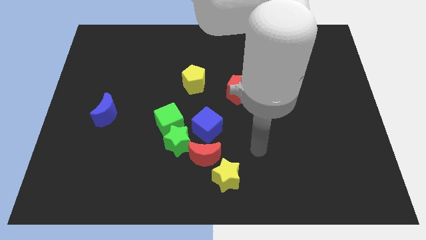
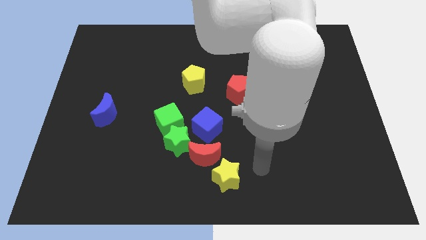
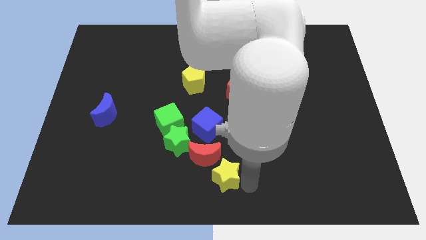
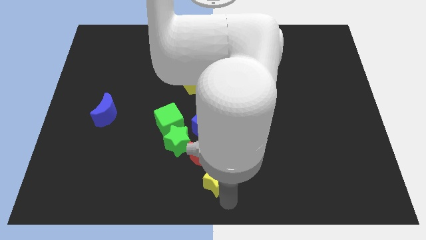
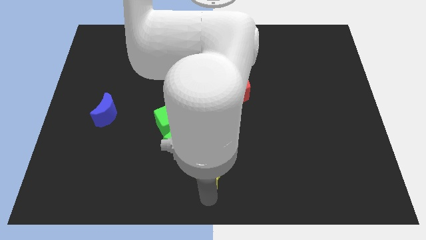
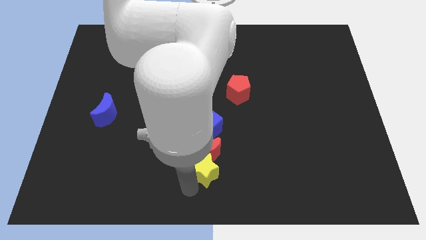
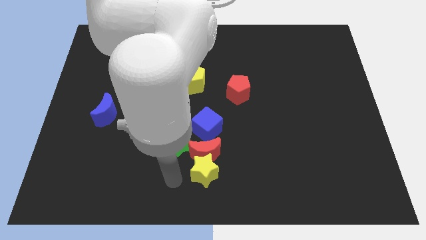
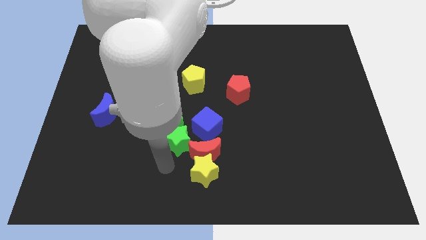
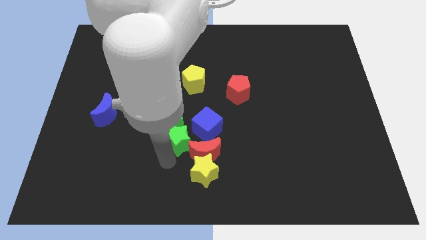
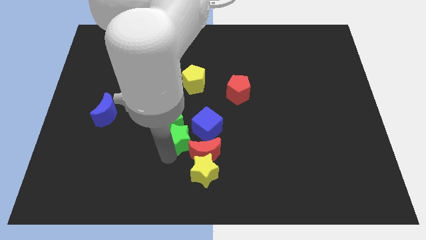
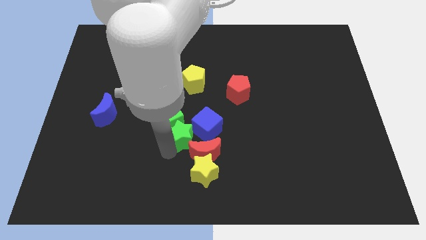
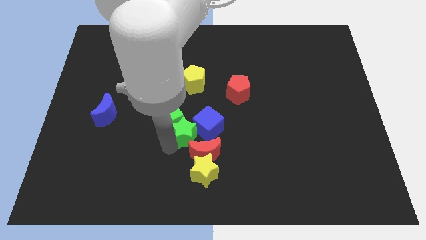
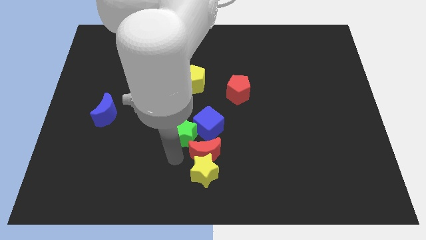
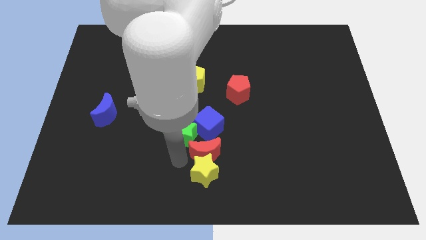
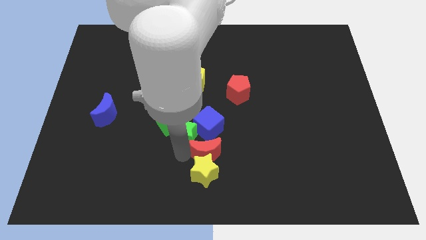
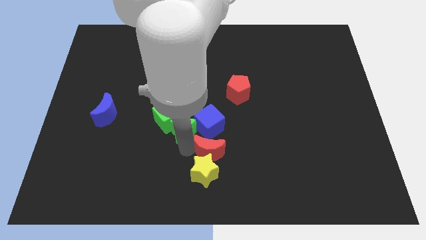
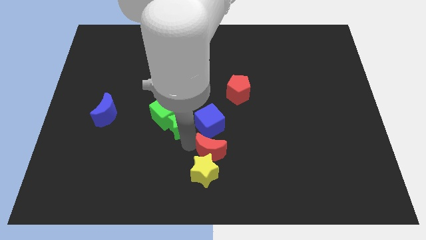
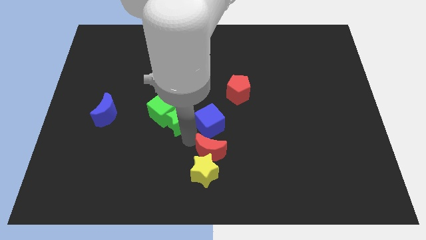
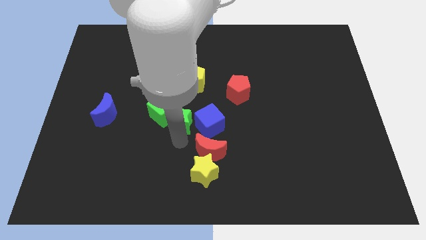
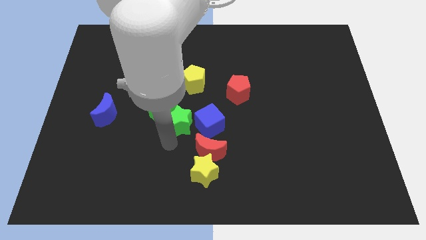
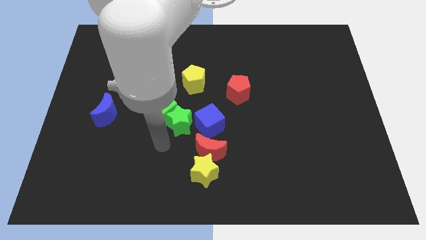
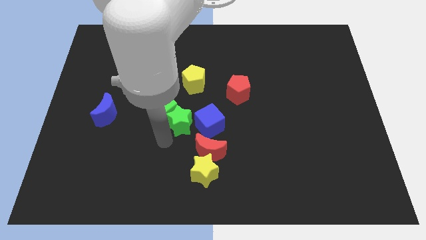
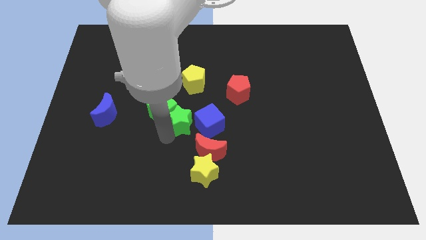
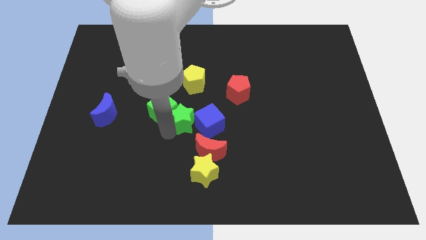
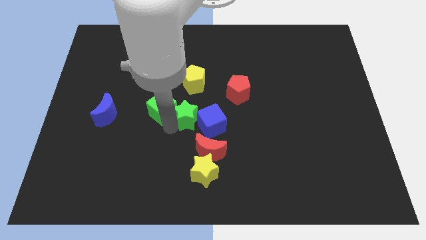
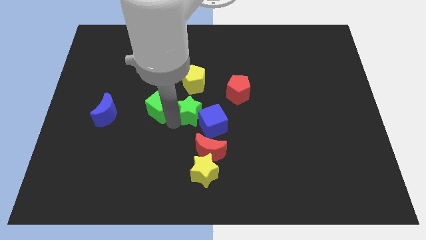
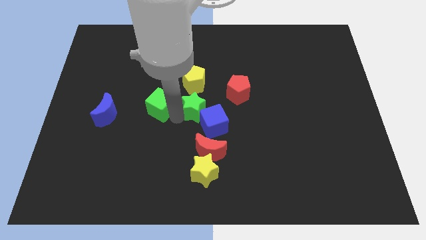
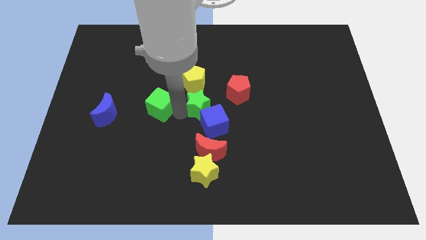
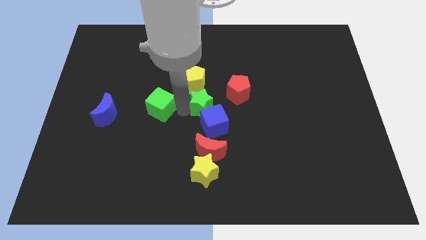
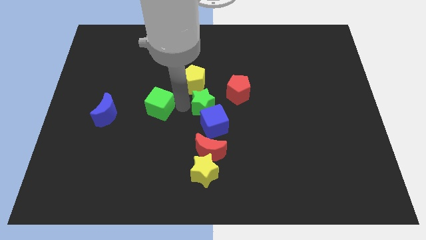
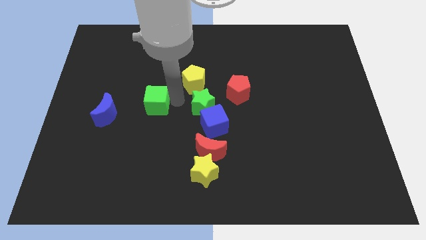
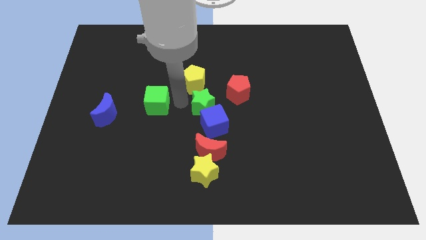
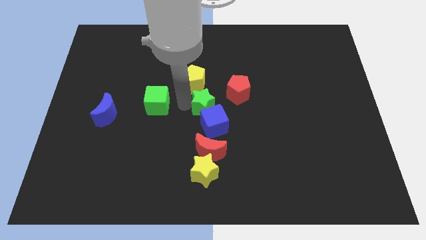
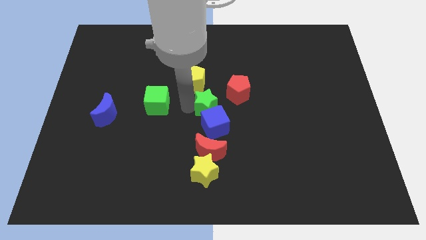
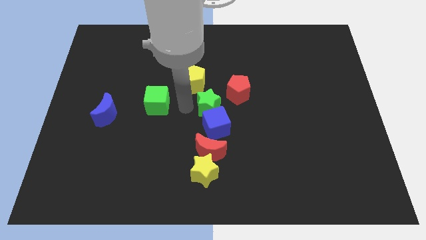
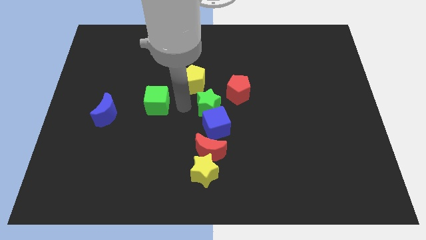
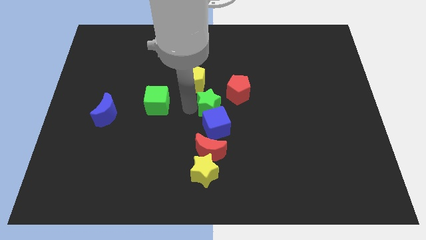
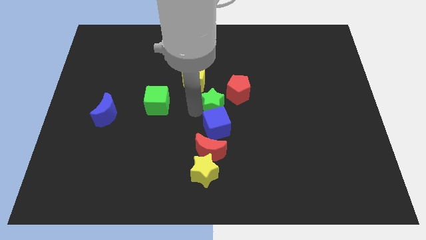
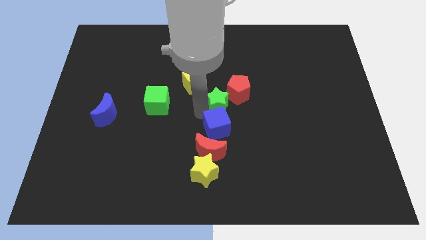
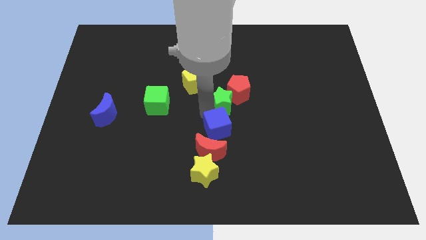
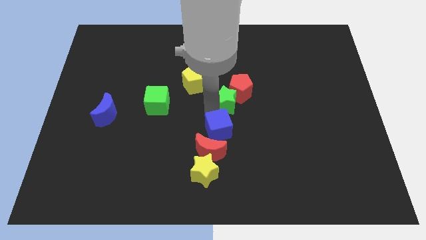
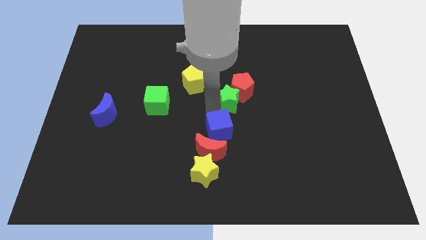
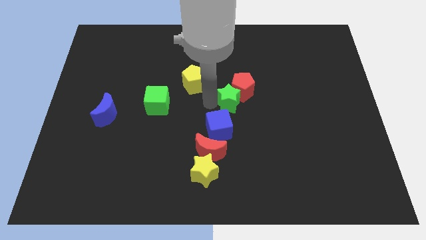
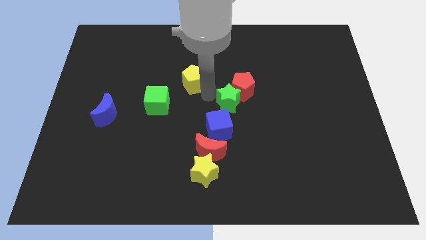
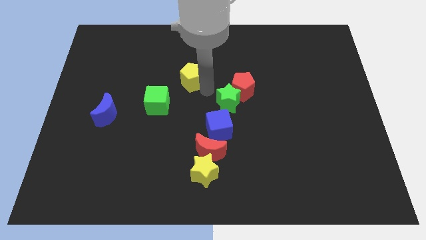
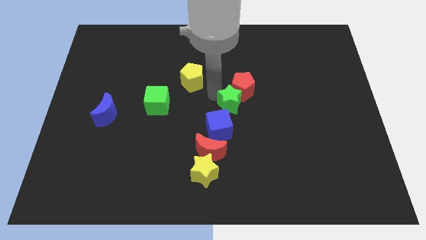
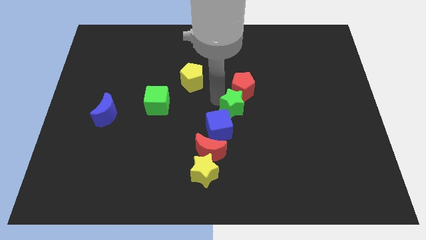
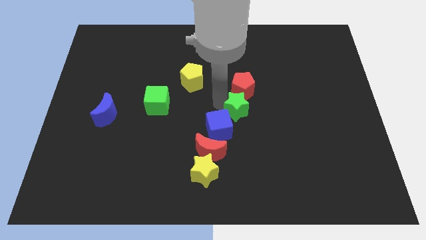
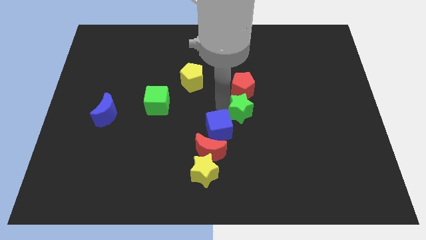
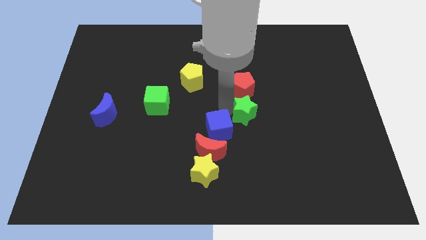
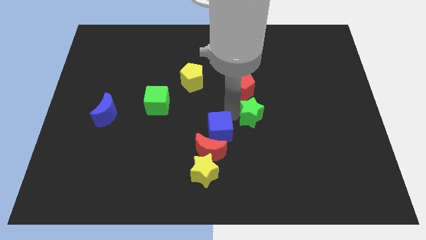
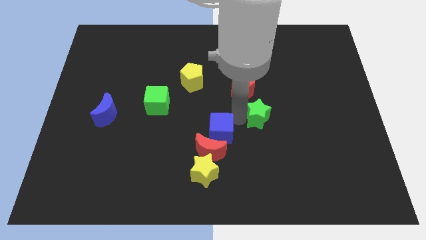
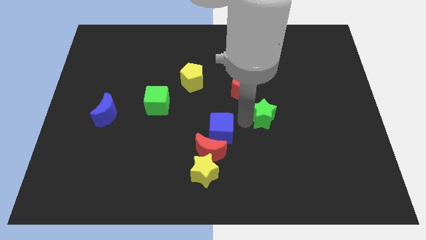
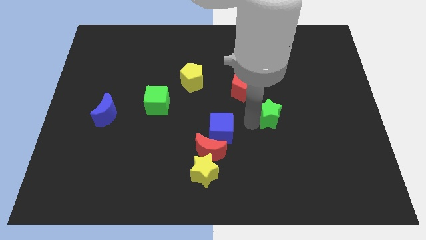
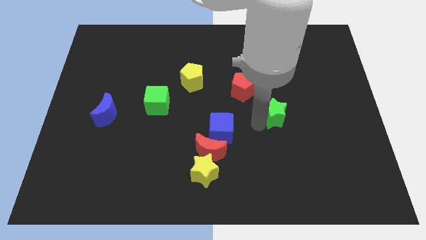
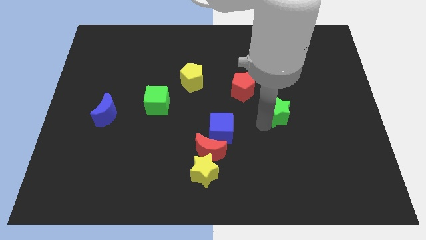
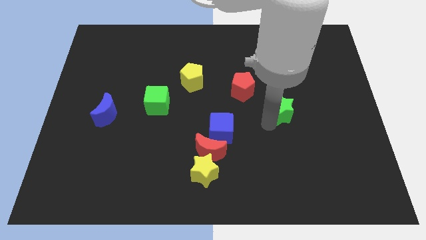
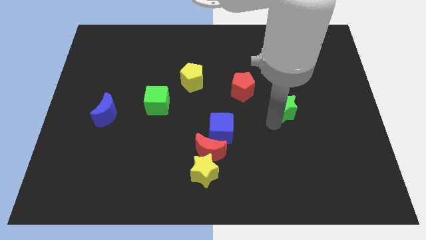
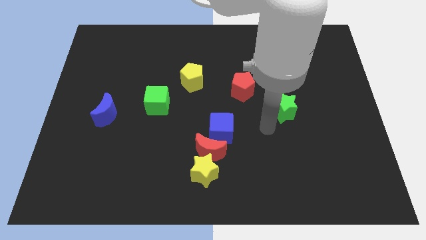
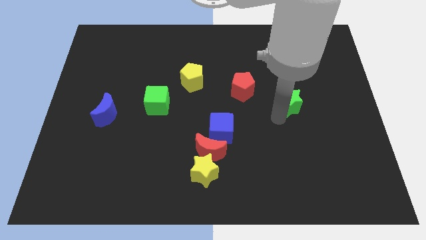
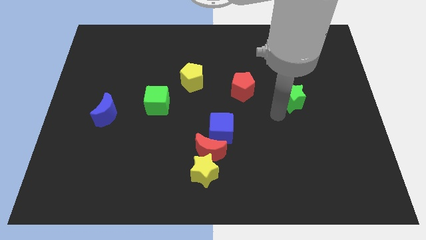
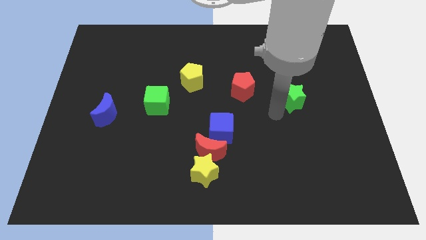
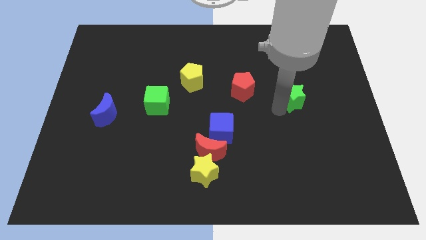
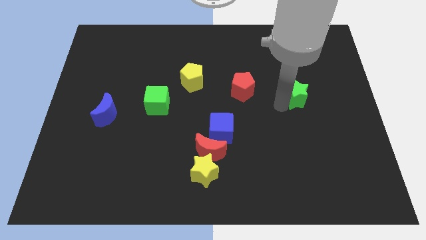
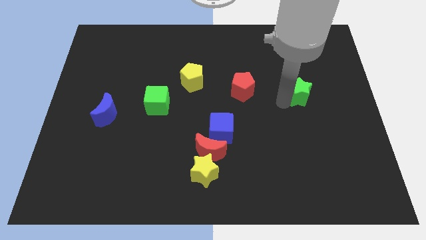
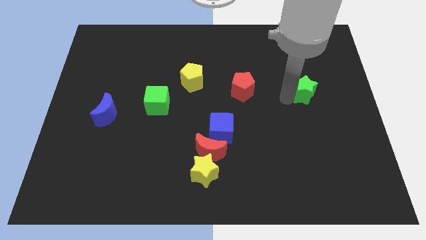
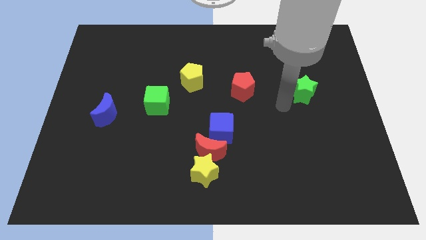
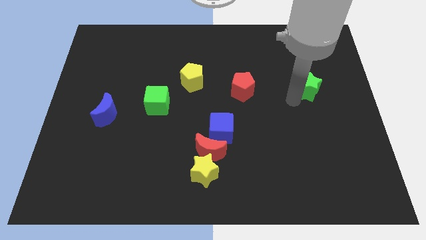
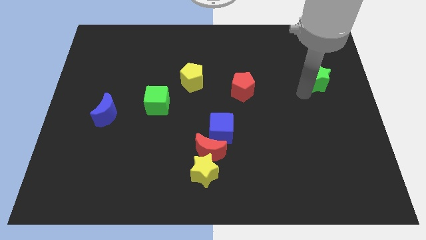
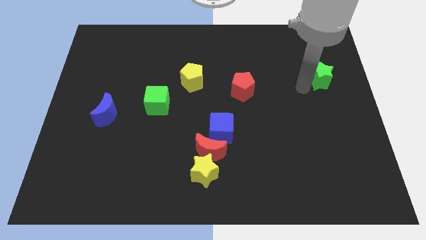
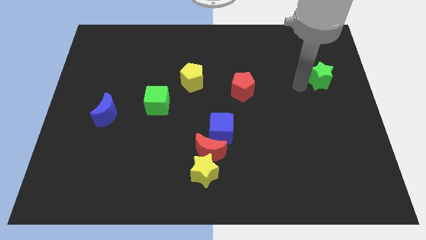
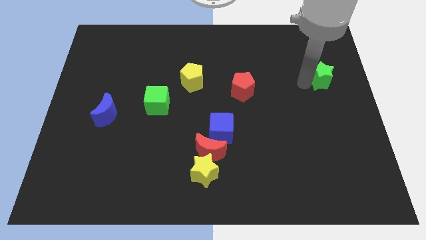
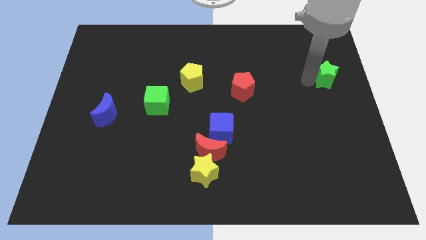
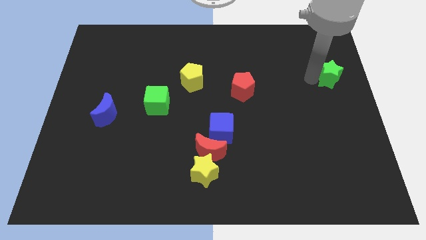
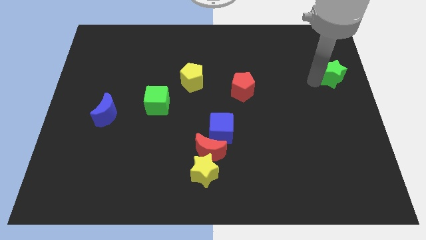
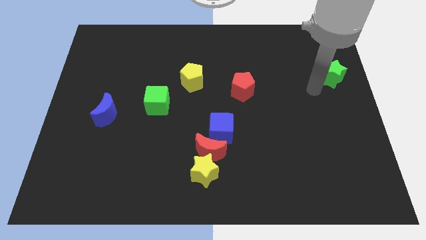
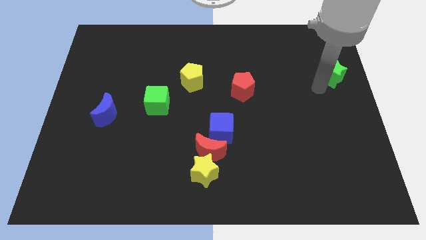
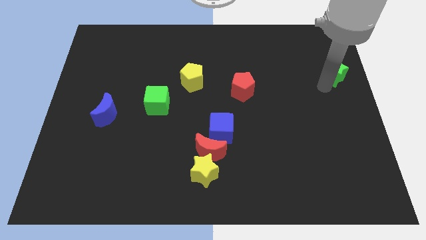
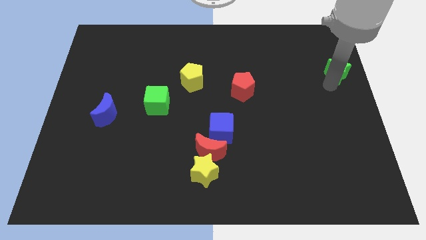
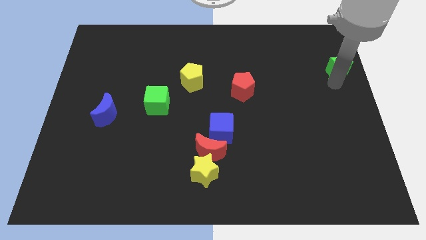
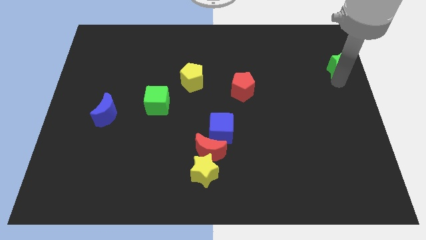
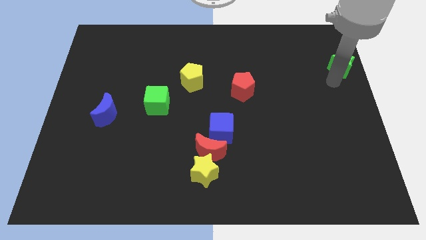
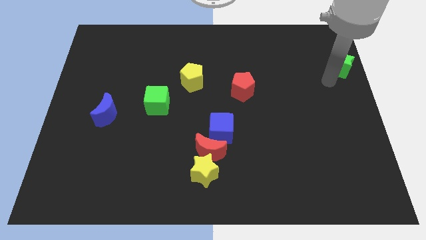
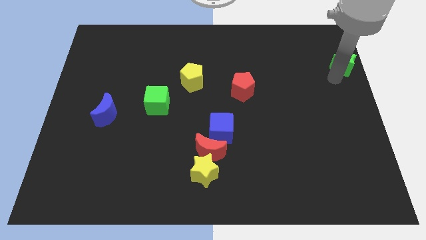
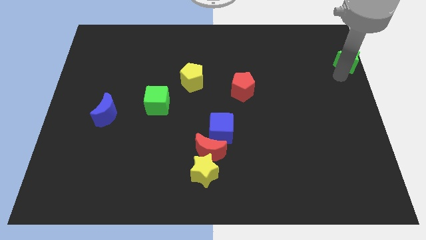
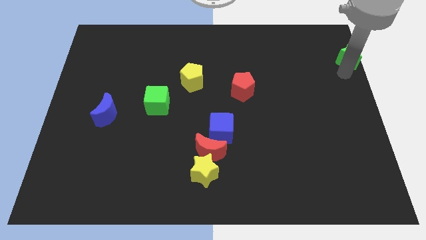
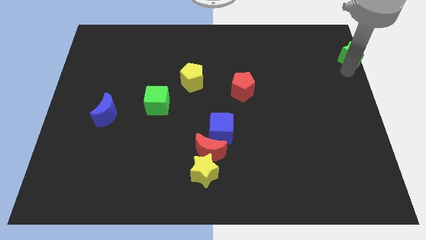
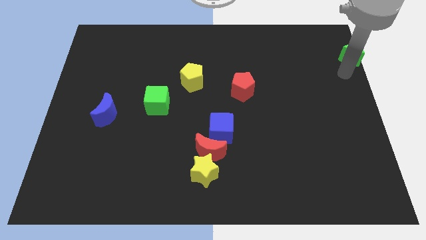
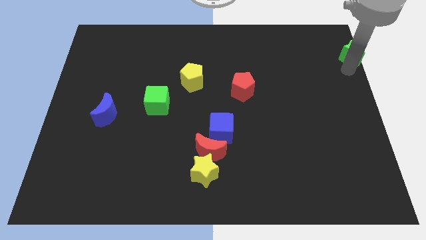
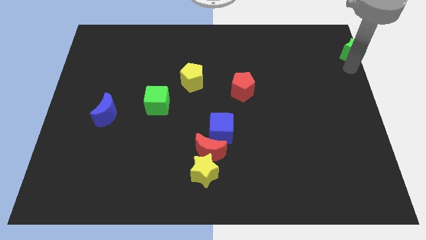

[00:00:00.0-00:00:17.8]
put the green star to the upper right corner
